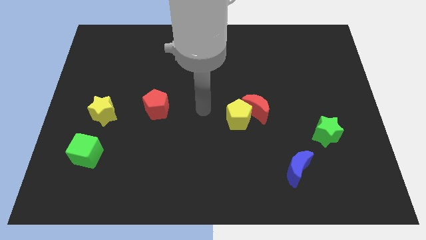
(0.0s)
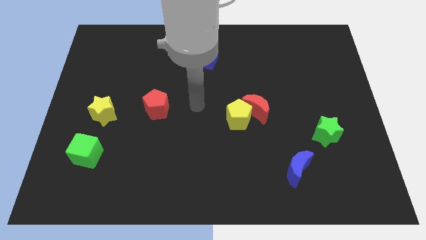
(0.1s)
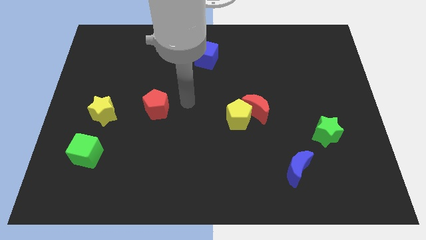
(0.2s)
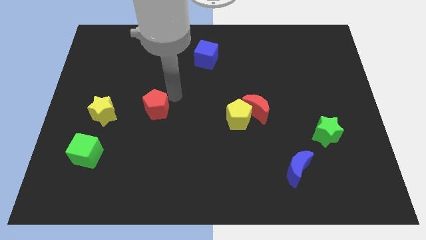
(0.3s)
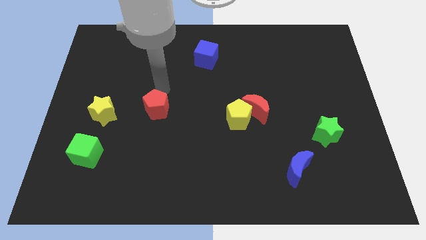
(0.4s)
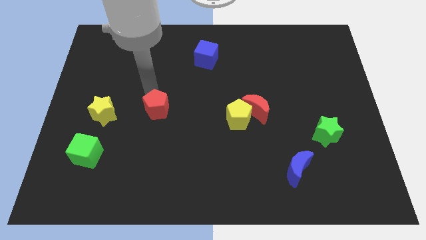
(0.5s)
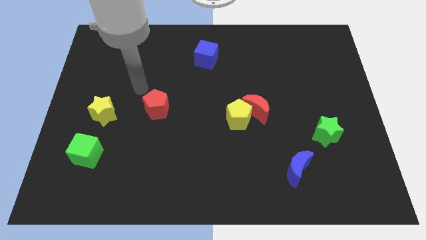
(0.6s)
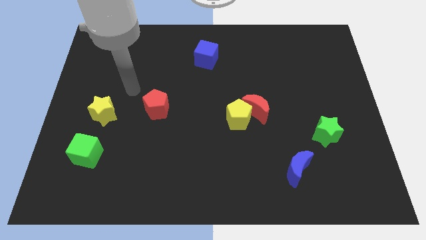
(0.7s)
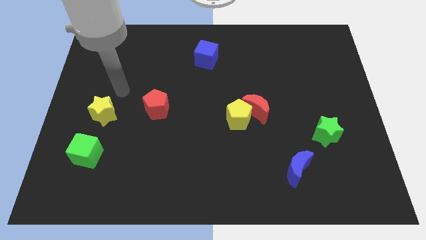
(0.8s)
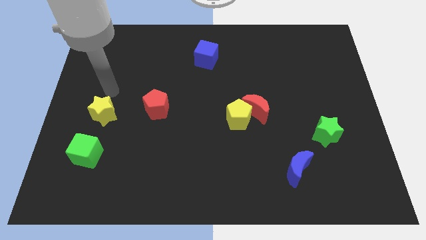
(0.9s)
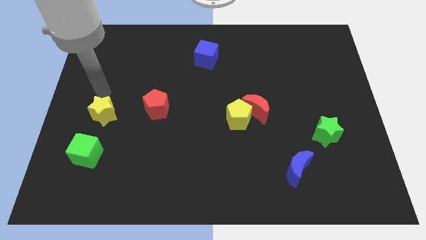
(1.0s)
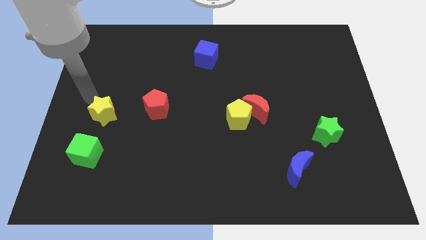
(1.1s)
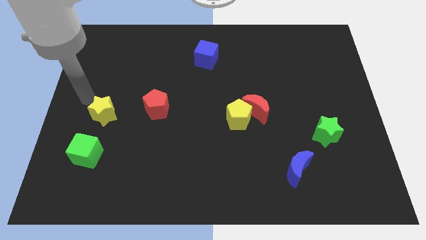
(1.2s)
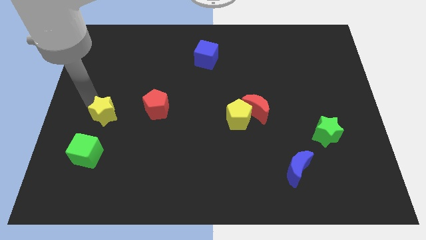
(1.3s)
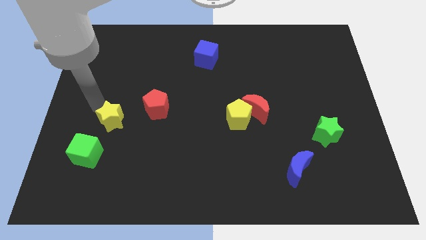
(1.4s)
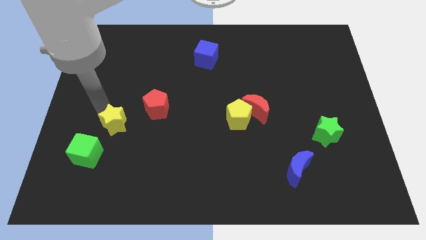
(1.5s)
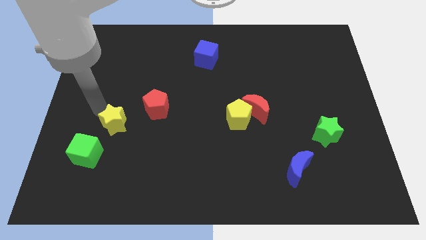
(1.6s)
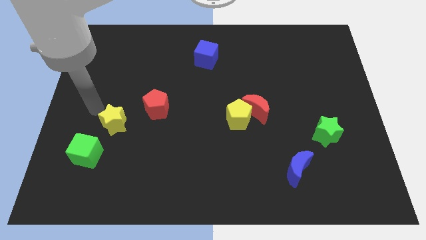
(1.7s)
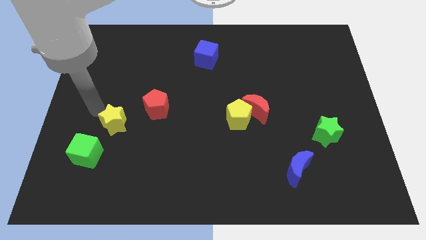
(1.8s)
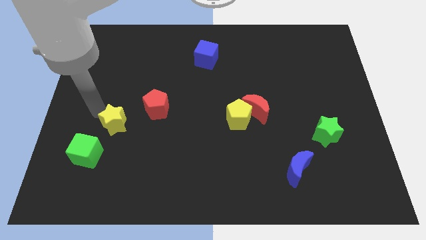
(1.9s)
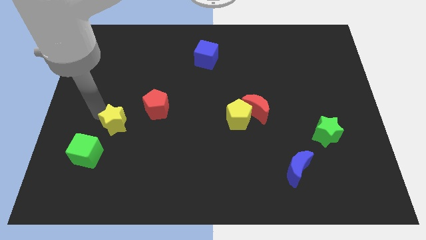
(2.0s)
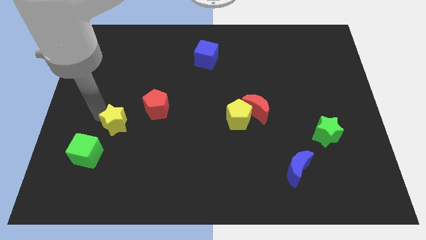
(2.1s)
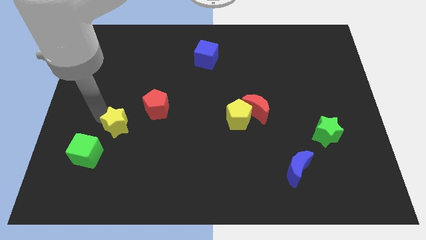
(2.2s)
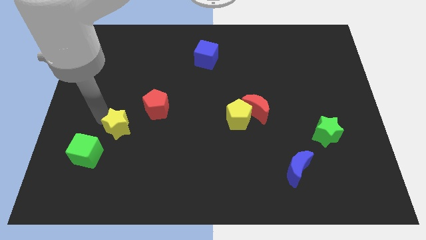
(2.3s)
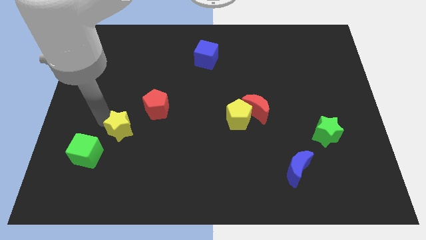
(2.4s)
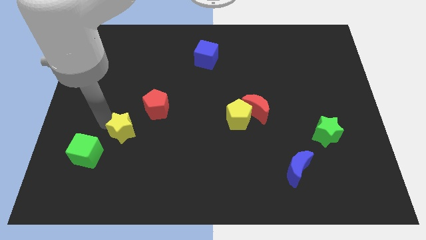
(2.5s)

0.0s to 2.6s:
push the yellow star a little bit diagonally downwards and to the right

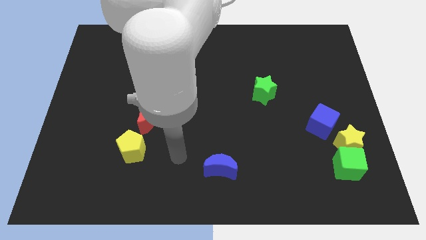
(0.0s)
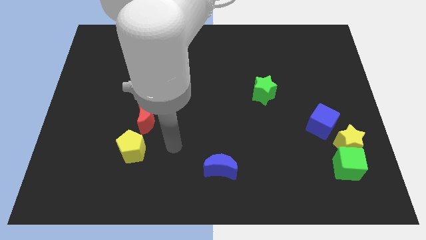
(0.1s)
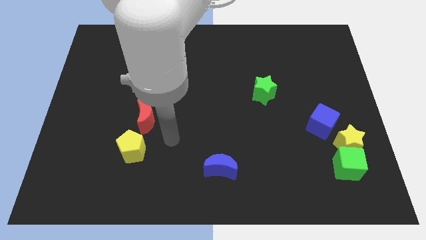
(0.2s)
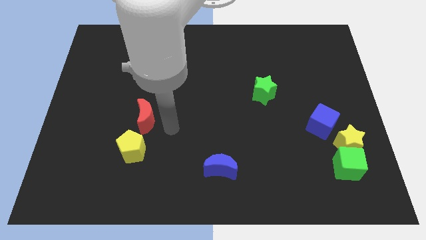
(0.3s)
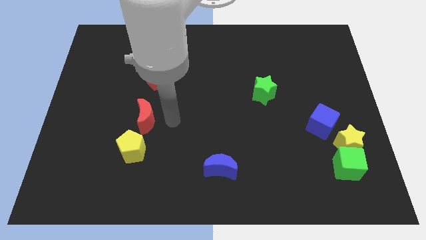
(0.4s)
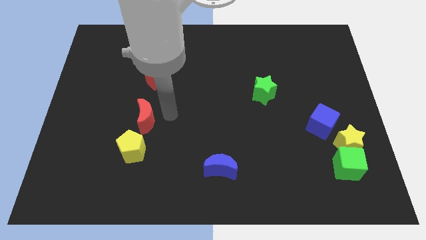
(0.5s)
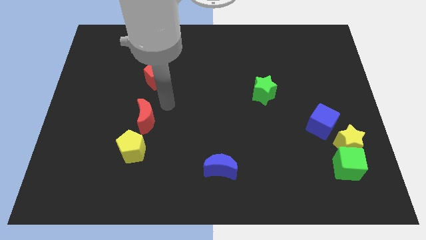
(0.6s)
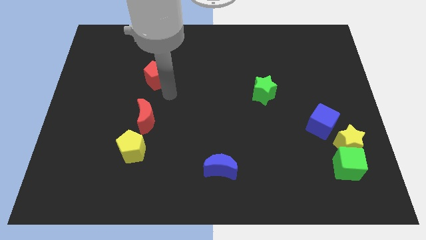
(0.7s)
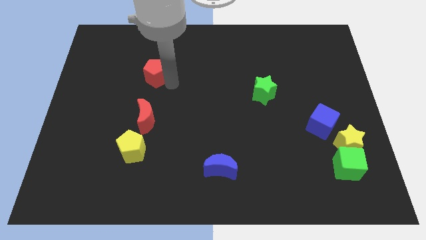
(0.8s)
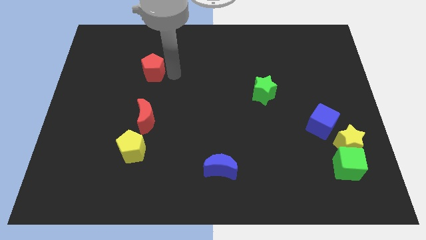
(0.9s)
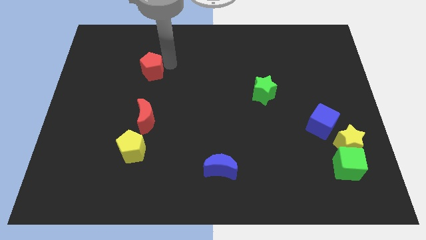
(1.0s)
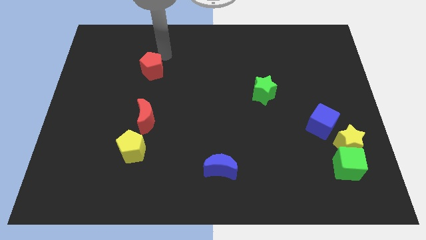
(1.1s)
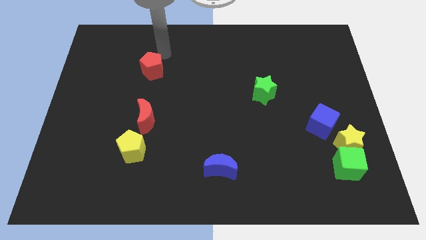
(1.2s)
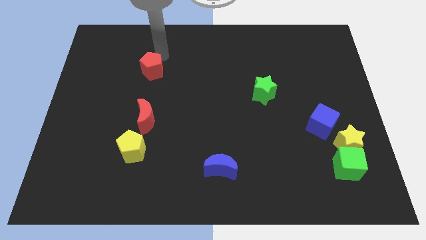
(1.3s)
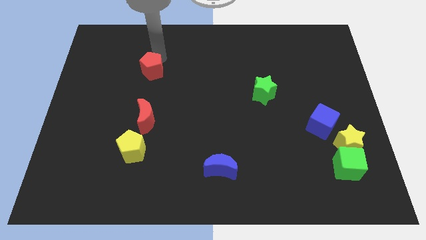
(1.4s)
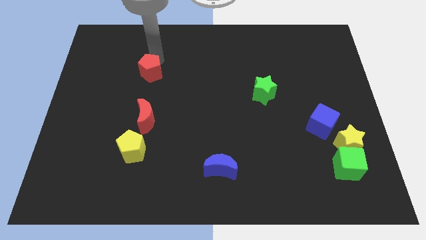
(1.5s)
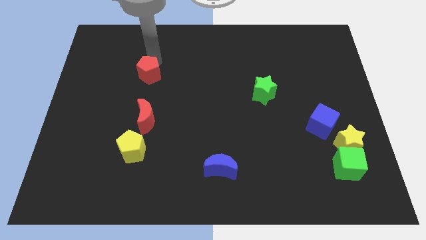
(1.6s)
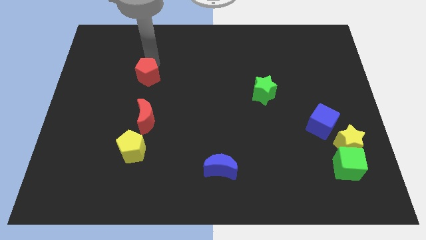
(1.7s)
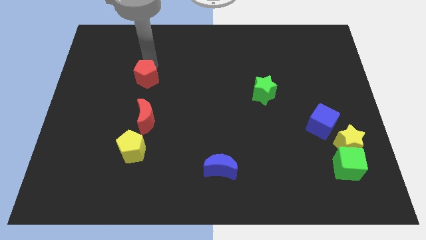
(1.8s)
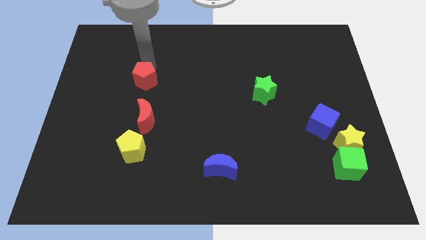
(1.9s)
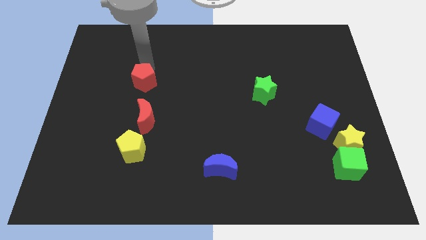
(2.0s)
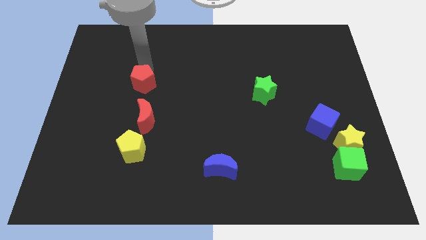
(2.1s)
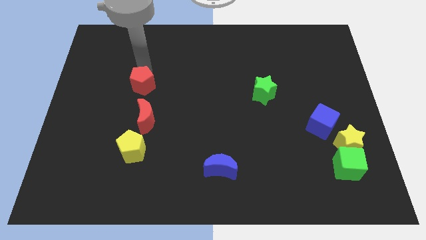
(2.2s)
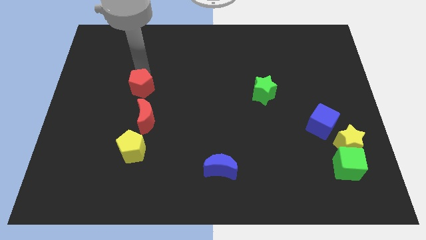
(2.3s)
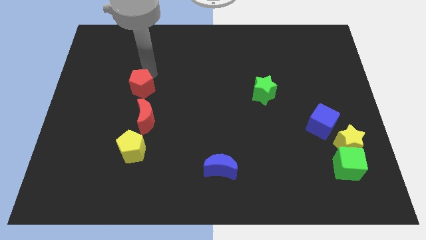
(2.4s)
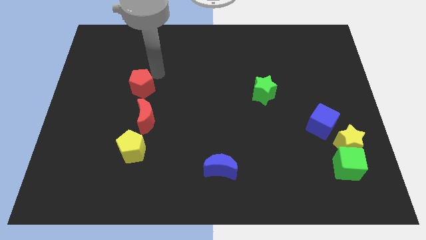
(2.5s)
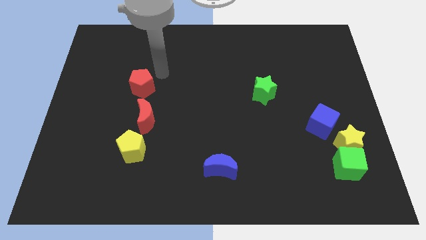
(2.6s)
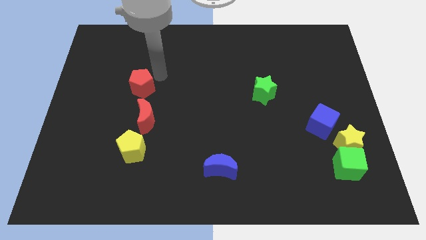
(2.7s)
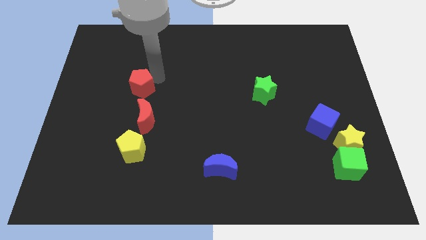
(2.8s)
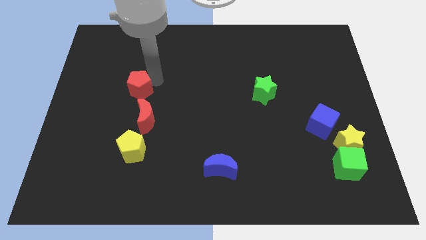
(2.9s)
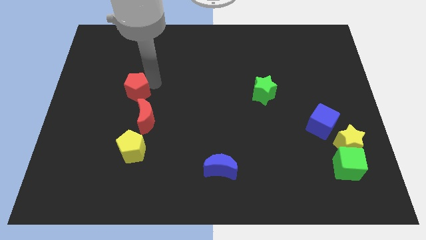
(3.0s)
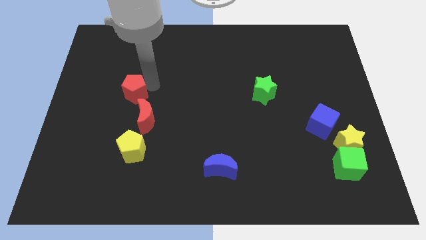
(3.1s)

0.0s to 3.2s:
push the red pentagon diagonally down and to the left slightly

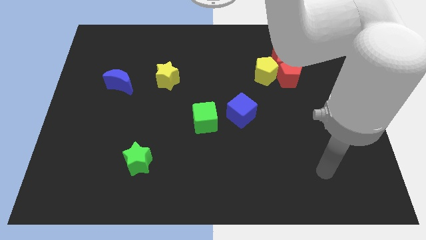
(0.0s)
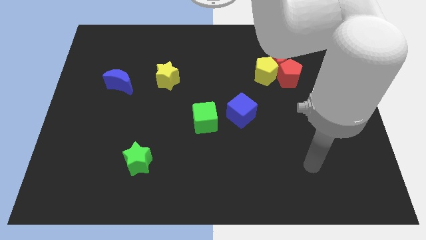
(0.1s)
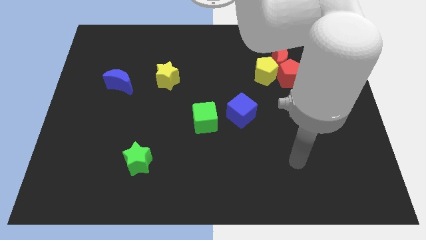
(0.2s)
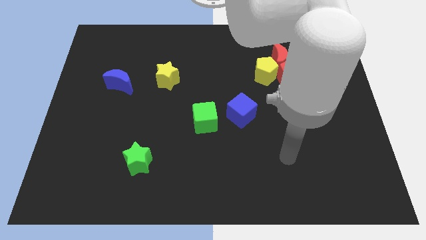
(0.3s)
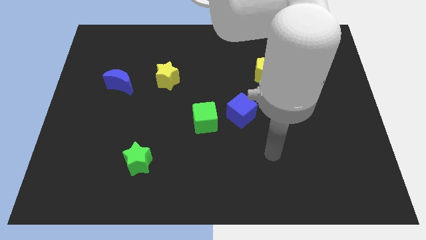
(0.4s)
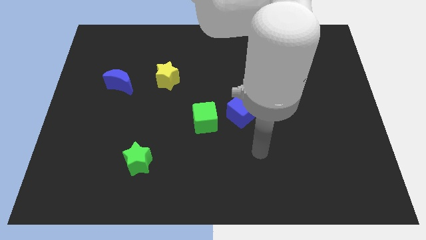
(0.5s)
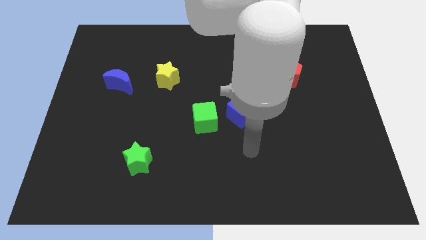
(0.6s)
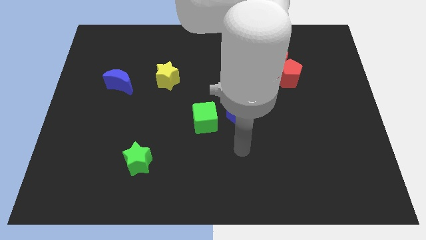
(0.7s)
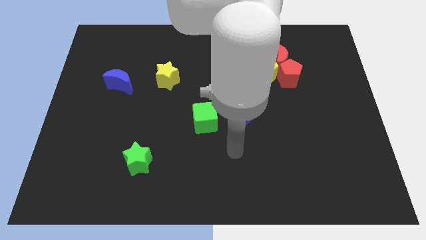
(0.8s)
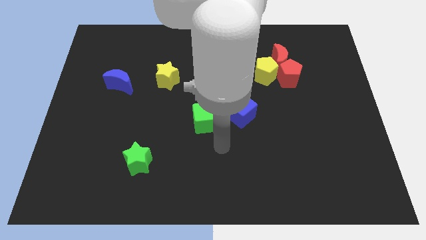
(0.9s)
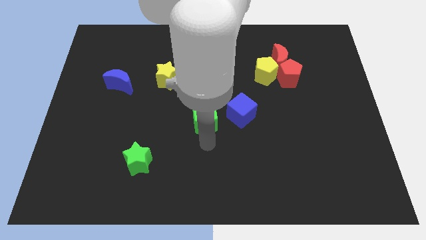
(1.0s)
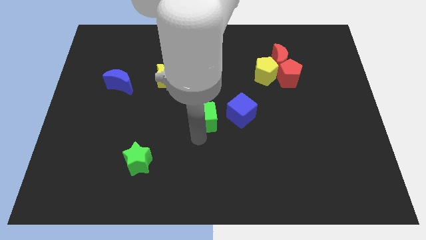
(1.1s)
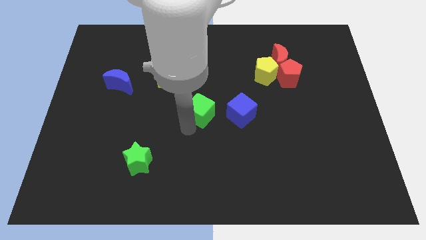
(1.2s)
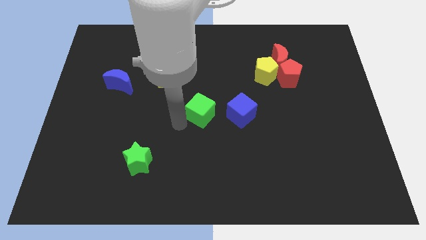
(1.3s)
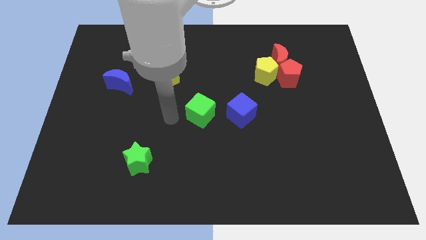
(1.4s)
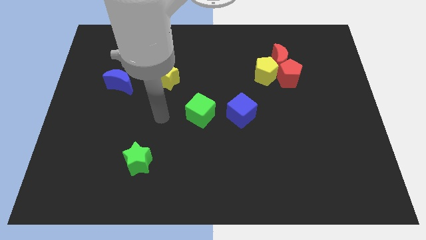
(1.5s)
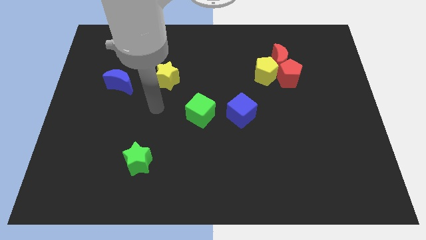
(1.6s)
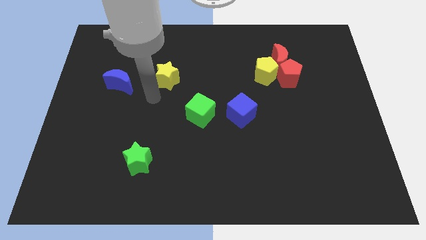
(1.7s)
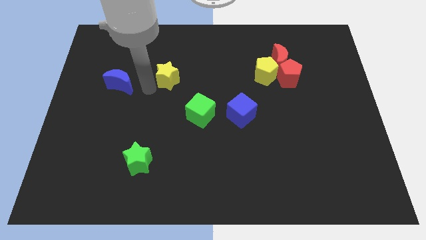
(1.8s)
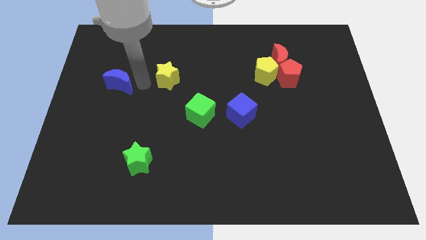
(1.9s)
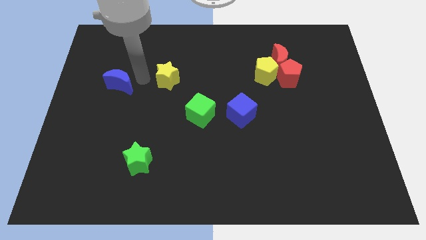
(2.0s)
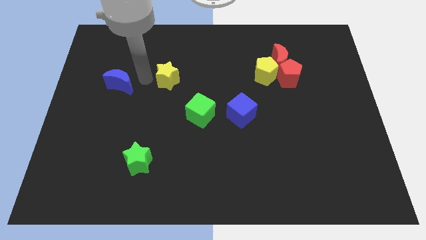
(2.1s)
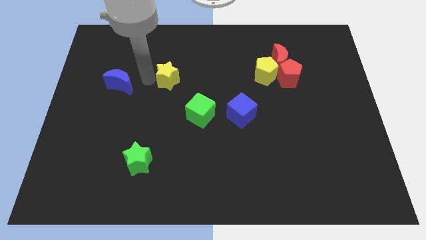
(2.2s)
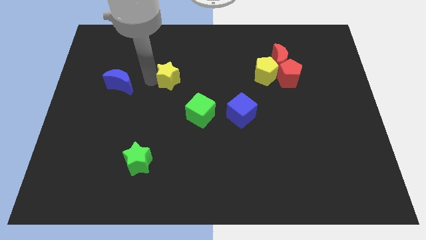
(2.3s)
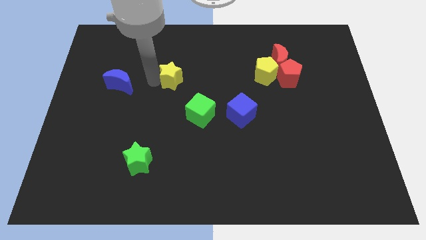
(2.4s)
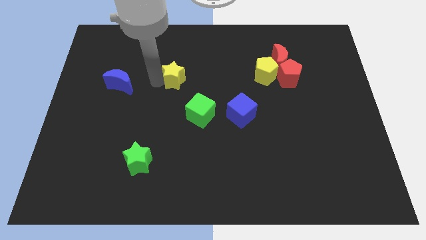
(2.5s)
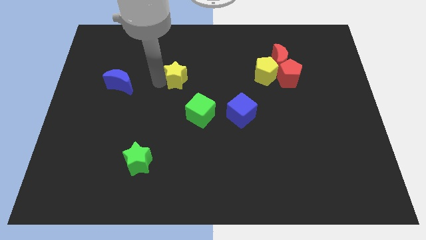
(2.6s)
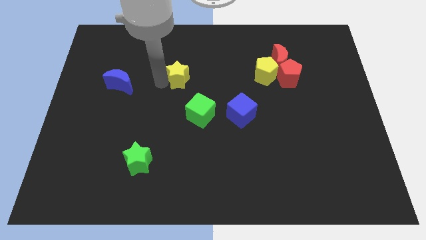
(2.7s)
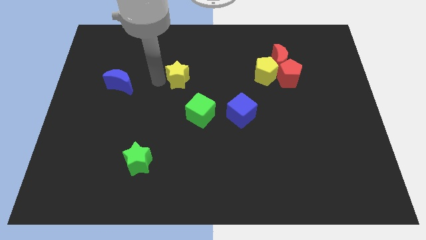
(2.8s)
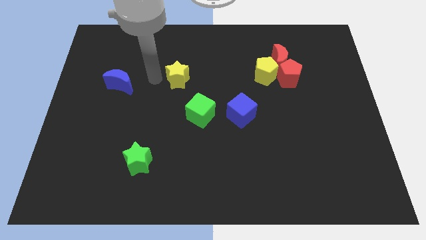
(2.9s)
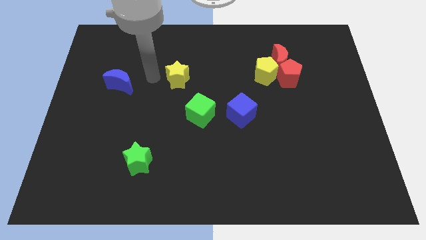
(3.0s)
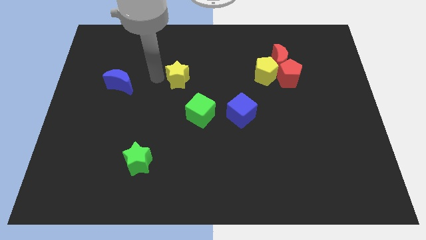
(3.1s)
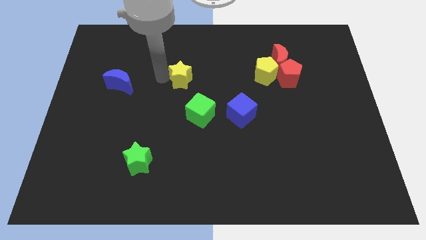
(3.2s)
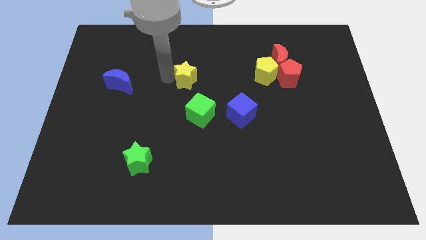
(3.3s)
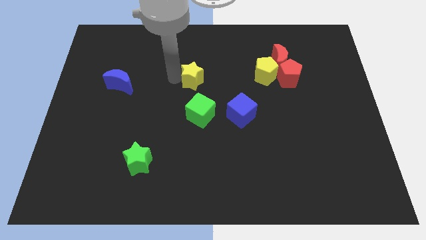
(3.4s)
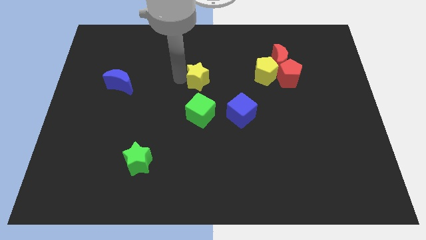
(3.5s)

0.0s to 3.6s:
move the yellow star somewhat to the right
